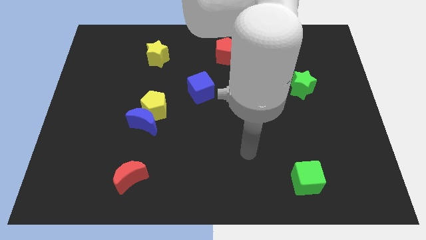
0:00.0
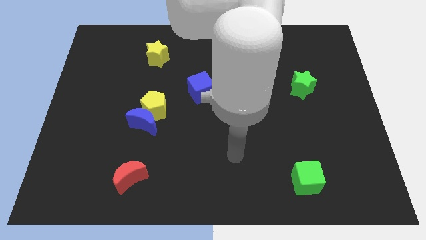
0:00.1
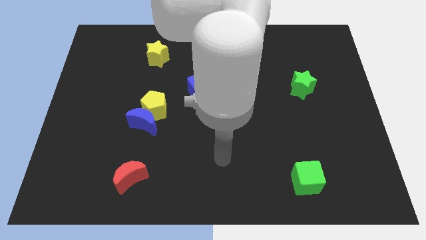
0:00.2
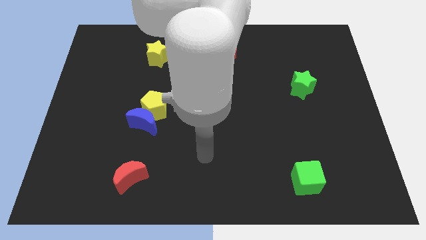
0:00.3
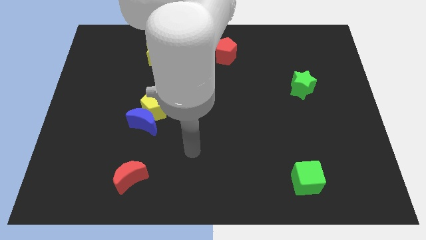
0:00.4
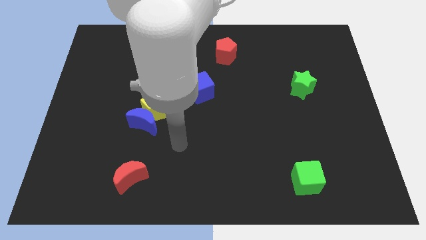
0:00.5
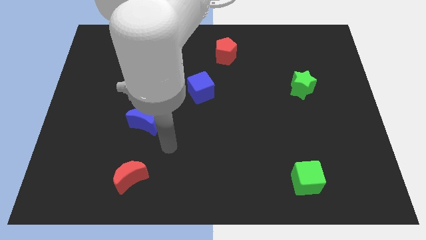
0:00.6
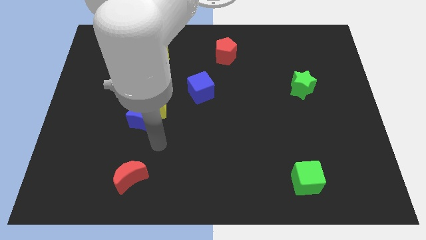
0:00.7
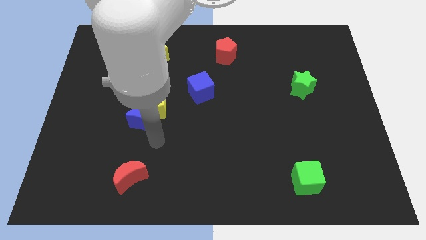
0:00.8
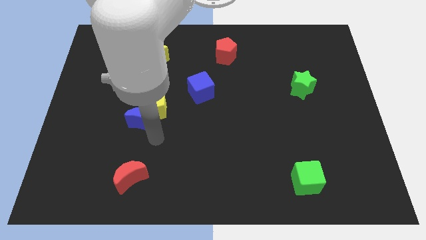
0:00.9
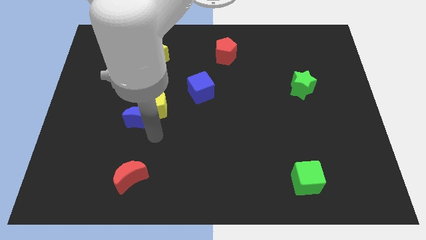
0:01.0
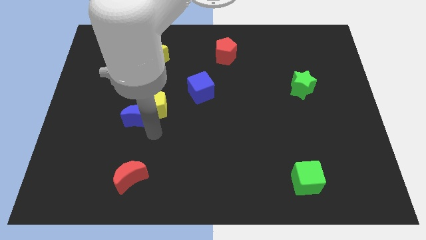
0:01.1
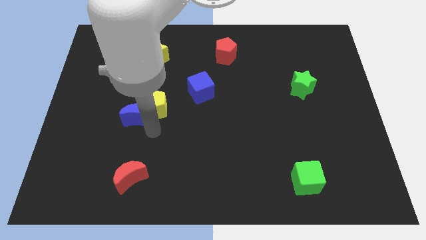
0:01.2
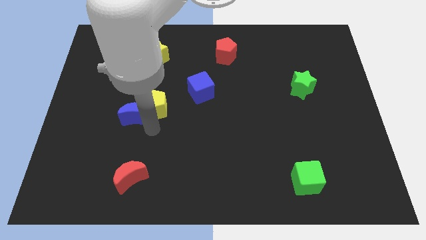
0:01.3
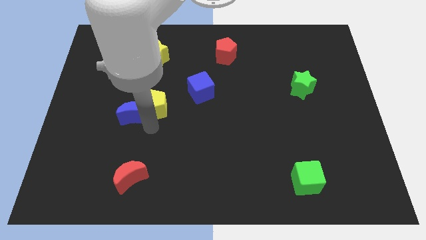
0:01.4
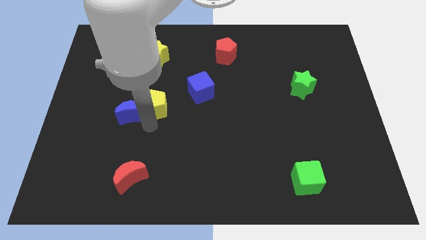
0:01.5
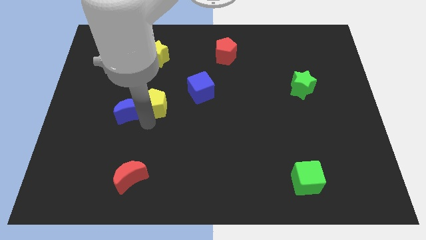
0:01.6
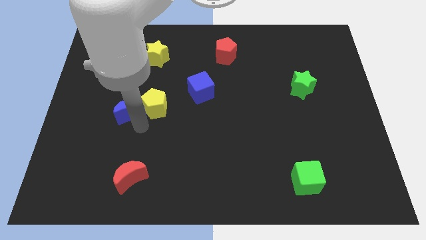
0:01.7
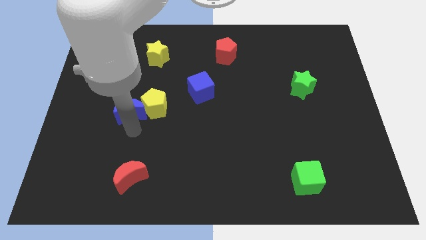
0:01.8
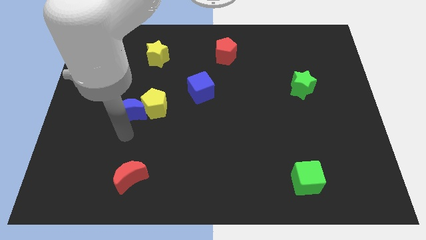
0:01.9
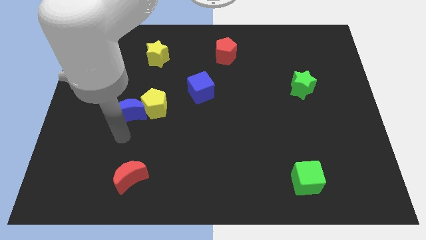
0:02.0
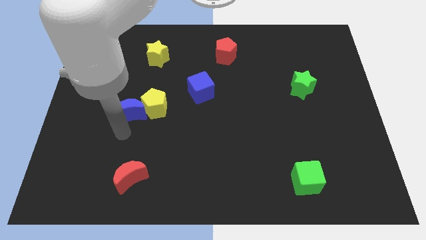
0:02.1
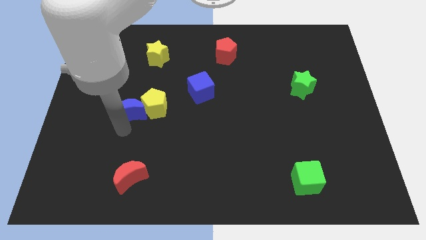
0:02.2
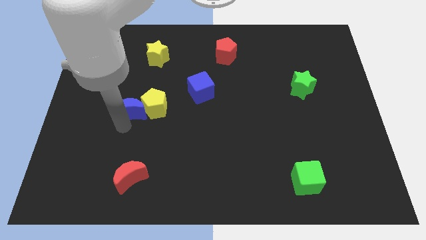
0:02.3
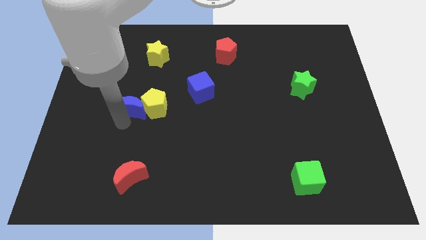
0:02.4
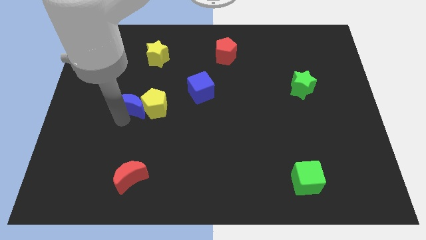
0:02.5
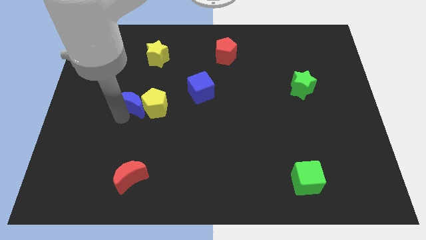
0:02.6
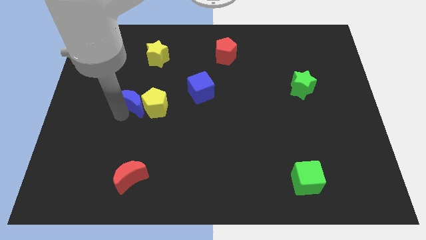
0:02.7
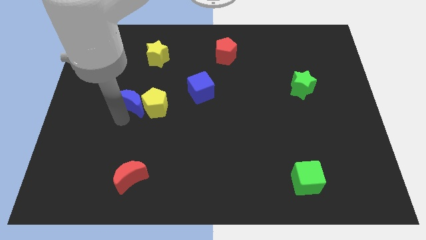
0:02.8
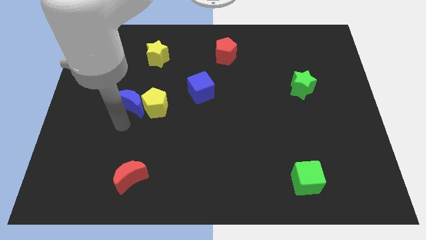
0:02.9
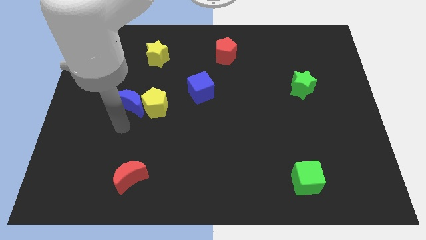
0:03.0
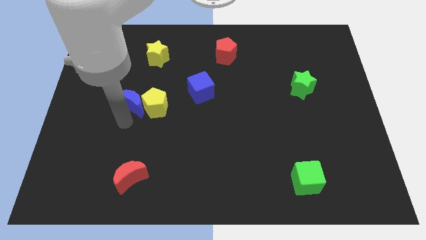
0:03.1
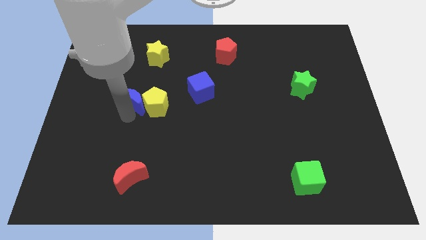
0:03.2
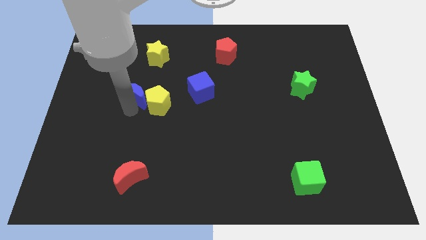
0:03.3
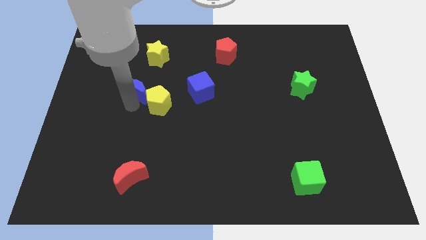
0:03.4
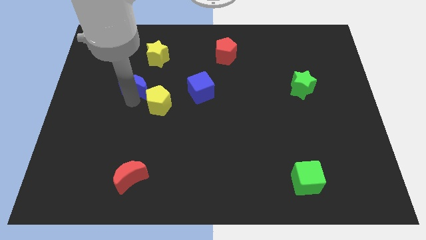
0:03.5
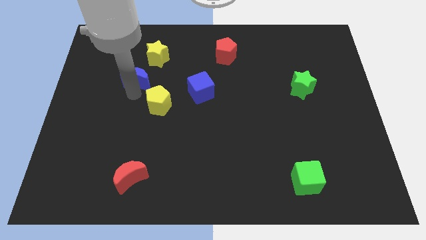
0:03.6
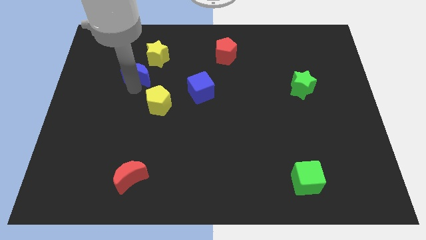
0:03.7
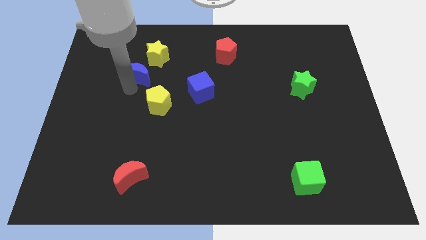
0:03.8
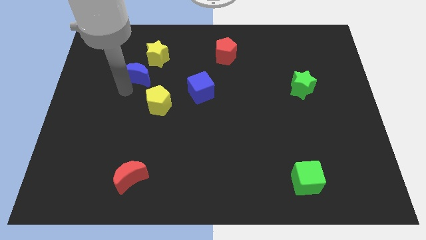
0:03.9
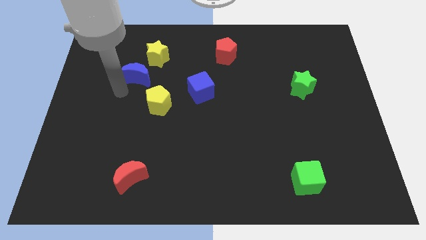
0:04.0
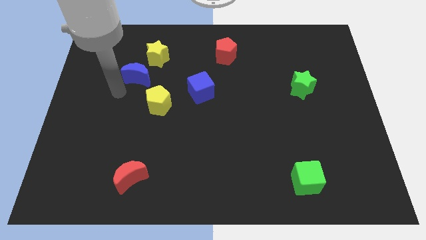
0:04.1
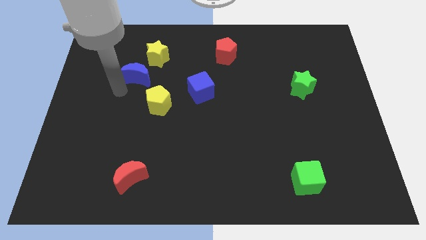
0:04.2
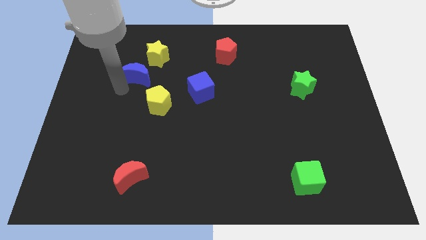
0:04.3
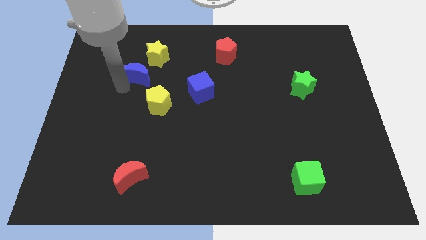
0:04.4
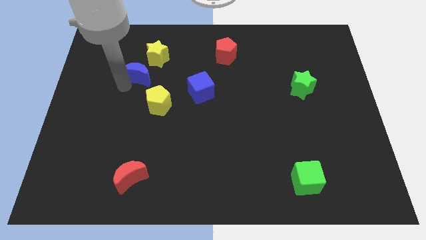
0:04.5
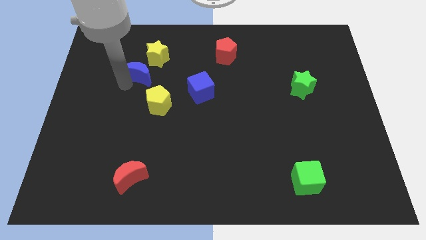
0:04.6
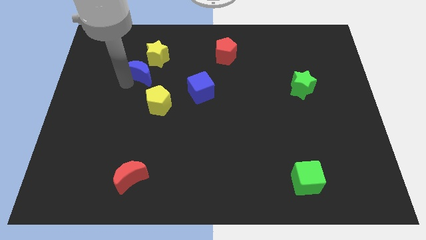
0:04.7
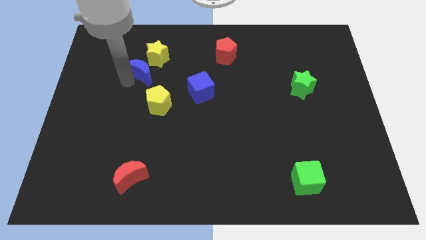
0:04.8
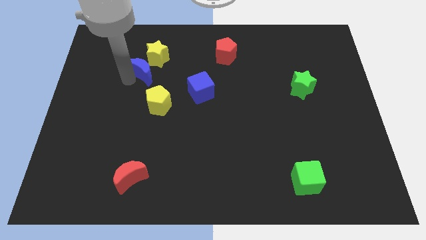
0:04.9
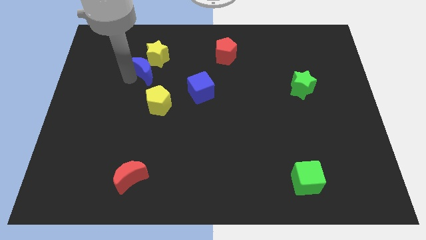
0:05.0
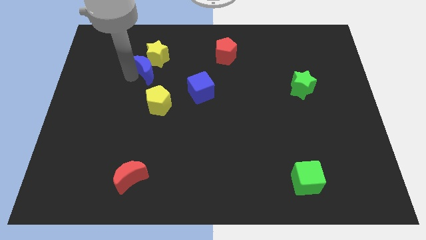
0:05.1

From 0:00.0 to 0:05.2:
slide the blue moon next to the yellow star

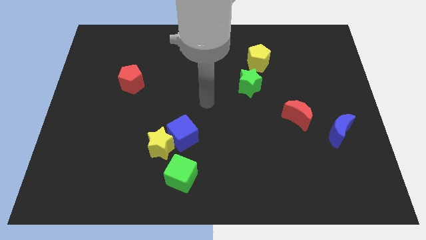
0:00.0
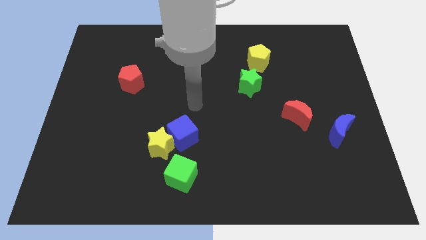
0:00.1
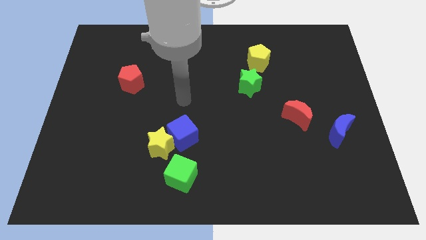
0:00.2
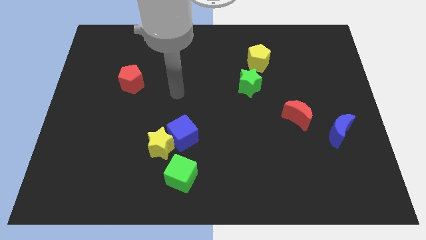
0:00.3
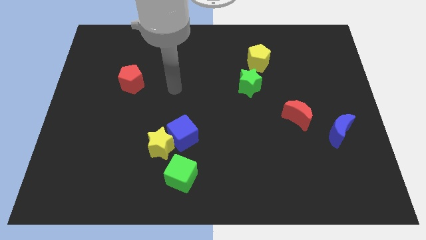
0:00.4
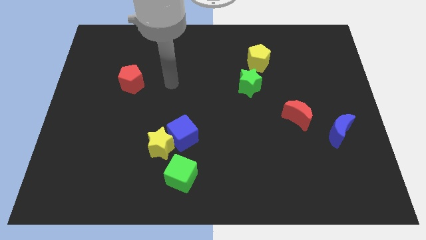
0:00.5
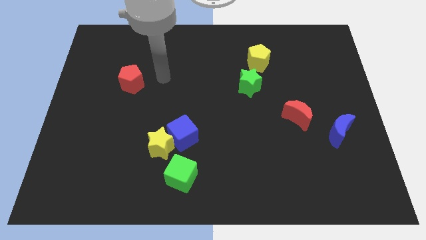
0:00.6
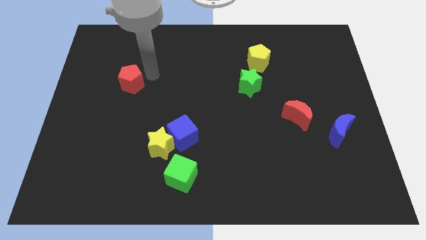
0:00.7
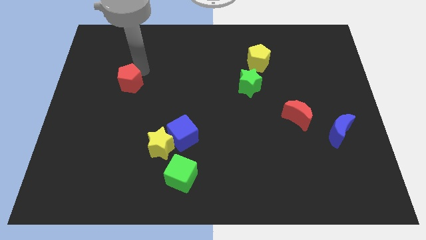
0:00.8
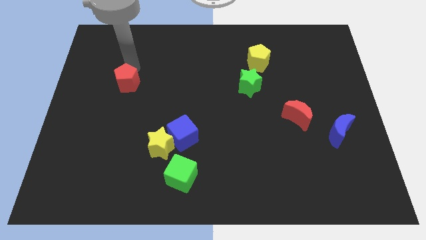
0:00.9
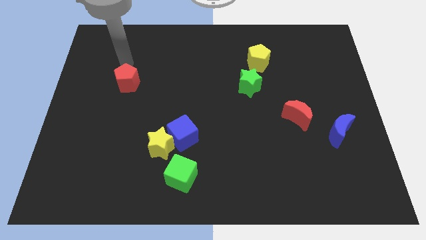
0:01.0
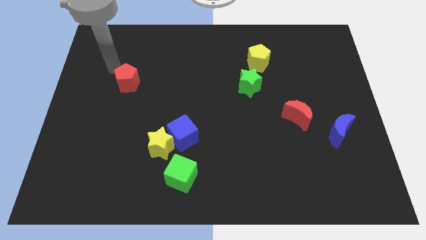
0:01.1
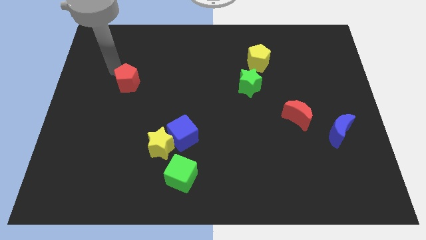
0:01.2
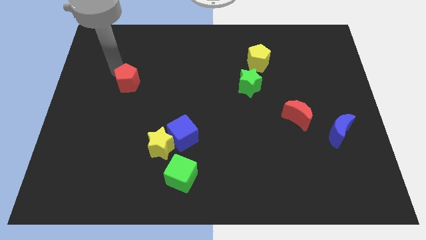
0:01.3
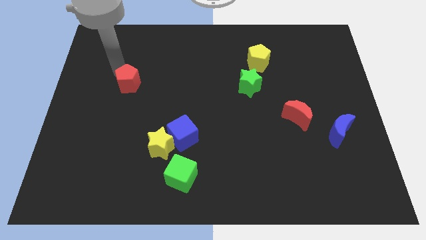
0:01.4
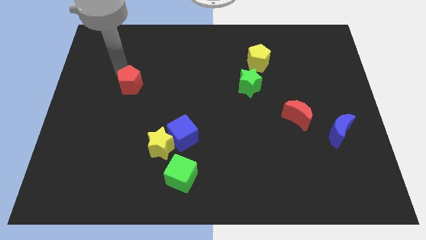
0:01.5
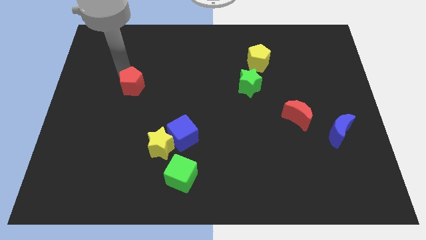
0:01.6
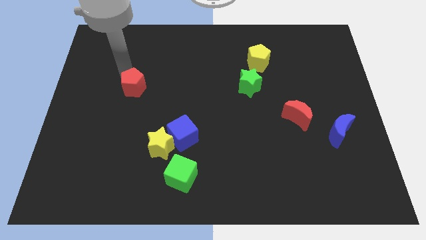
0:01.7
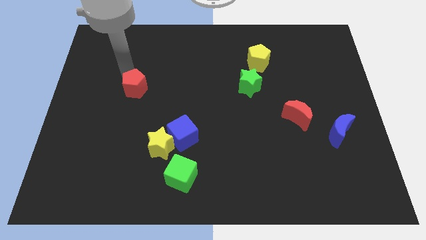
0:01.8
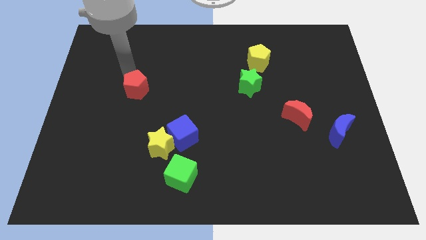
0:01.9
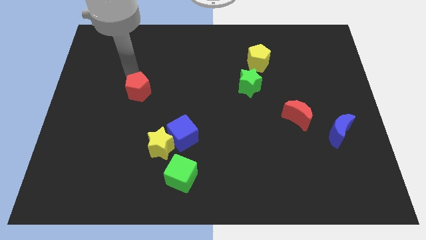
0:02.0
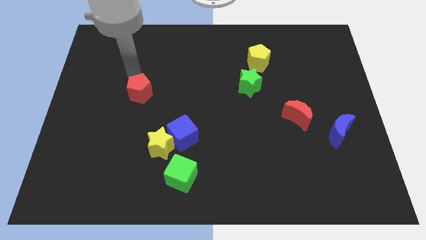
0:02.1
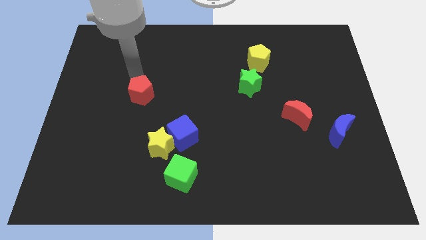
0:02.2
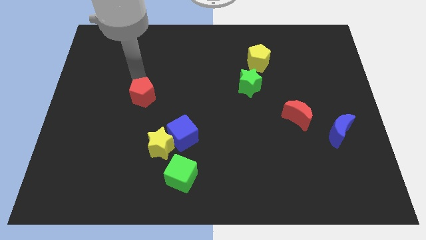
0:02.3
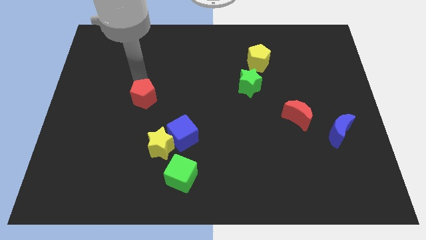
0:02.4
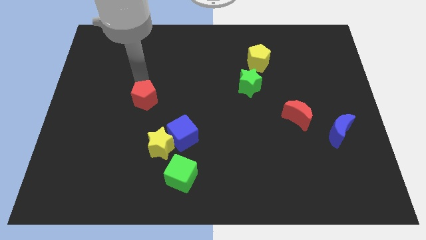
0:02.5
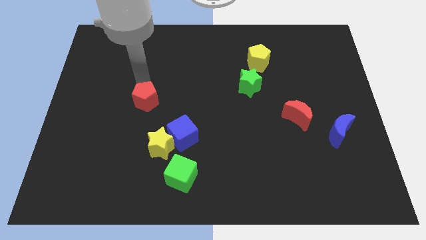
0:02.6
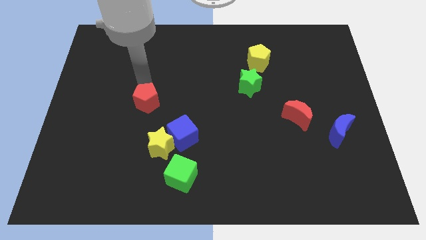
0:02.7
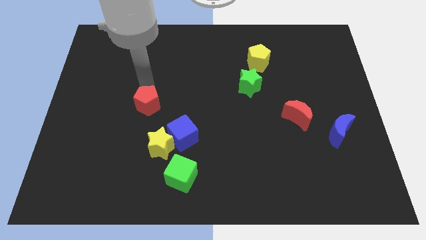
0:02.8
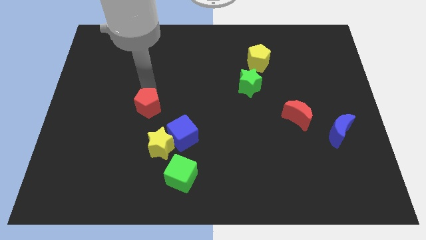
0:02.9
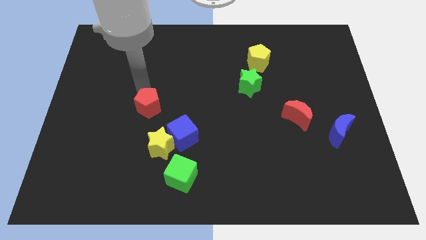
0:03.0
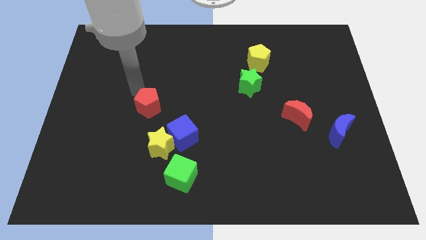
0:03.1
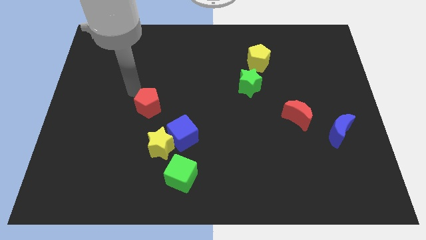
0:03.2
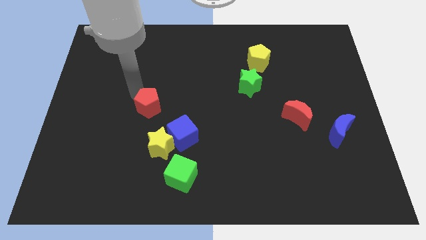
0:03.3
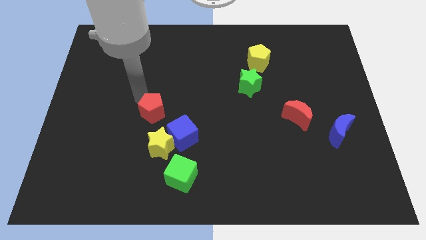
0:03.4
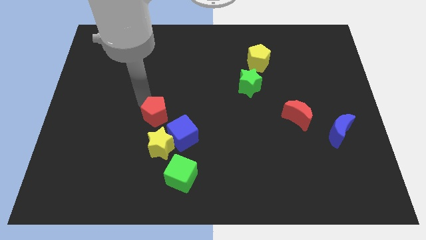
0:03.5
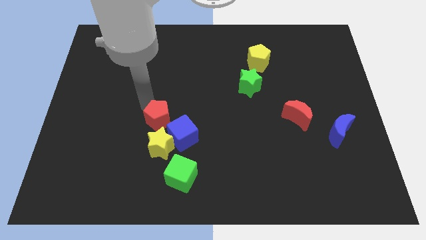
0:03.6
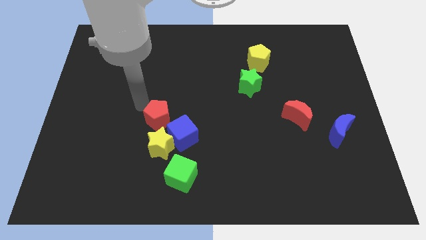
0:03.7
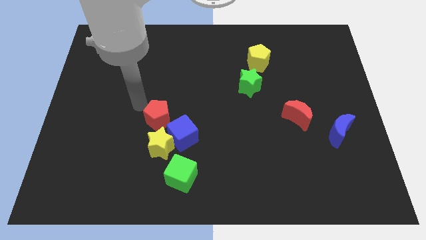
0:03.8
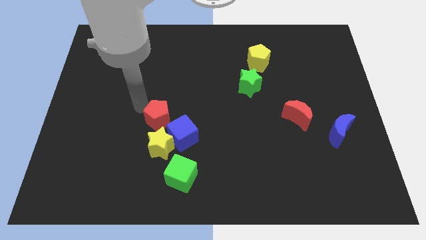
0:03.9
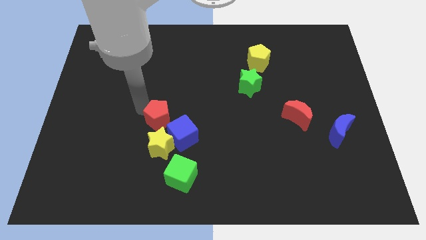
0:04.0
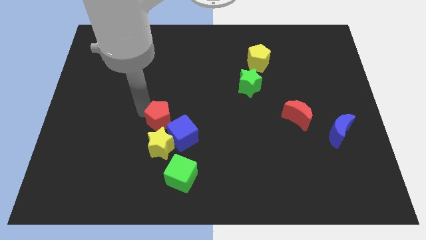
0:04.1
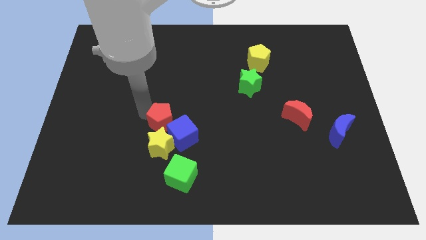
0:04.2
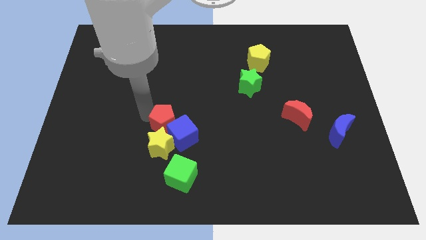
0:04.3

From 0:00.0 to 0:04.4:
push the red pentagon close to the blue cube
